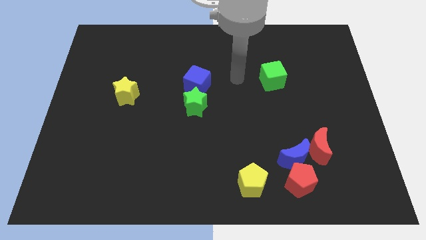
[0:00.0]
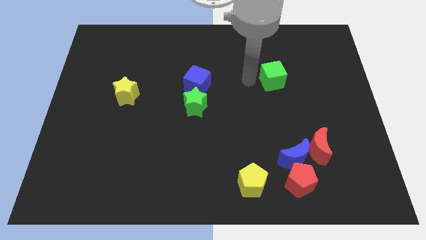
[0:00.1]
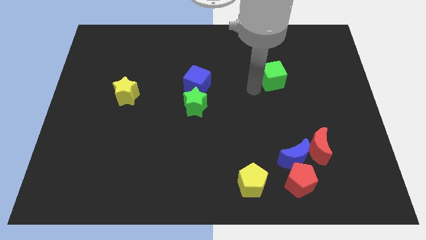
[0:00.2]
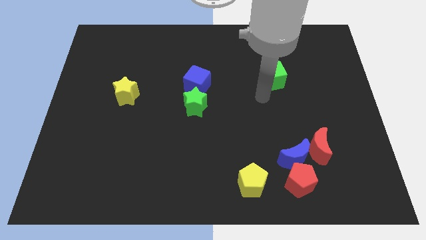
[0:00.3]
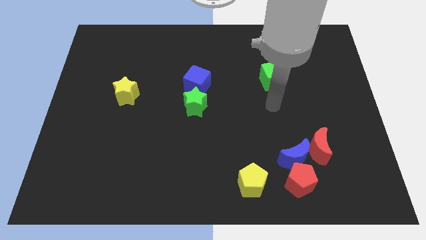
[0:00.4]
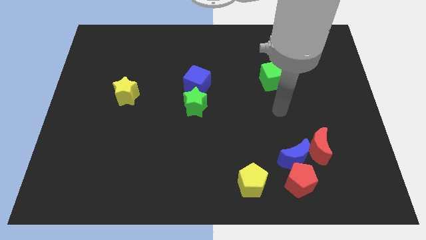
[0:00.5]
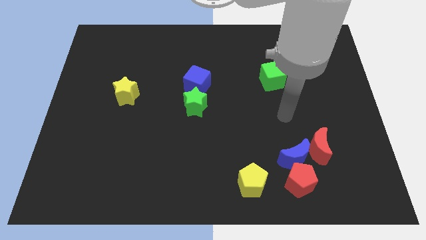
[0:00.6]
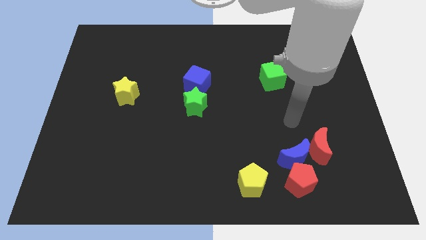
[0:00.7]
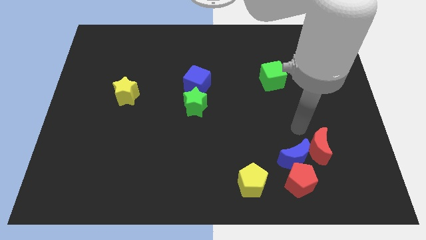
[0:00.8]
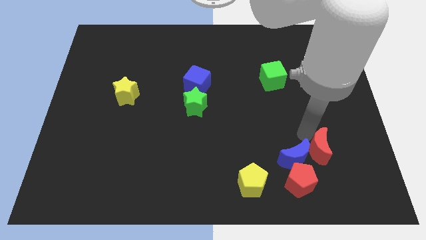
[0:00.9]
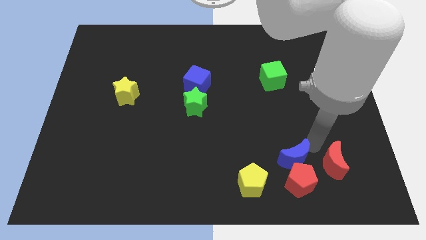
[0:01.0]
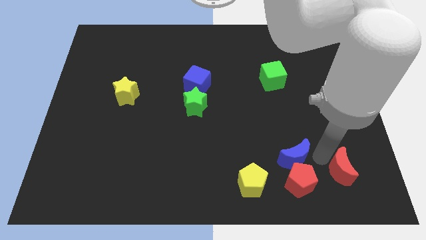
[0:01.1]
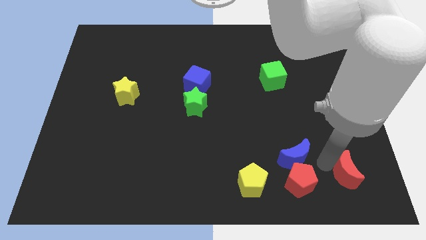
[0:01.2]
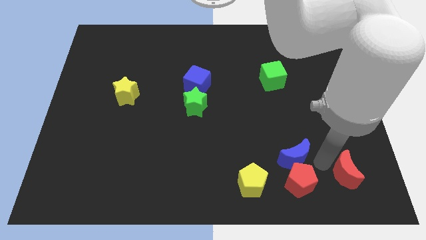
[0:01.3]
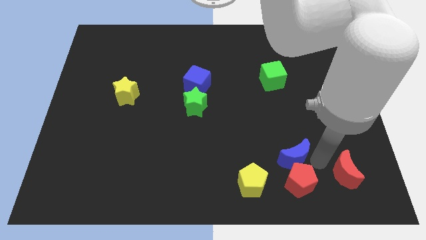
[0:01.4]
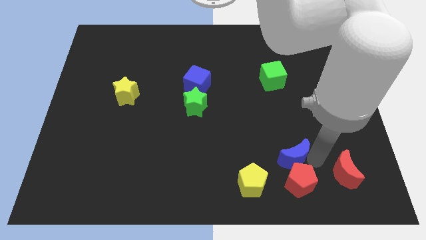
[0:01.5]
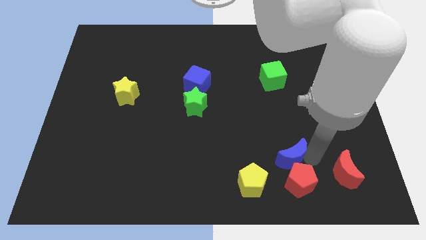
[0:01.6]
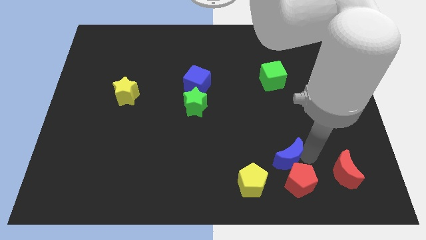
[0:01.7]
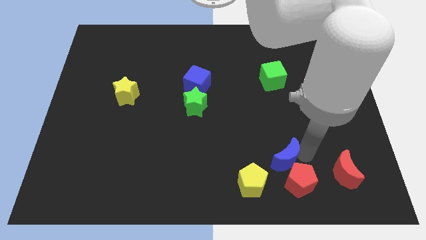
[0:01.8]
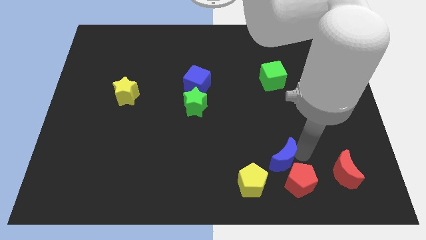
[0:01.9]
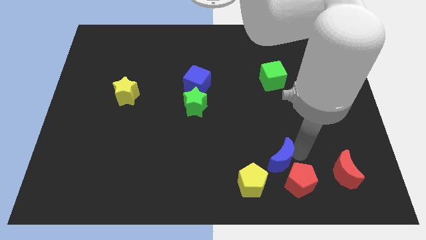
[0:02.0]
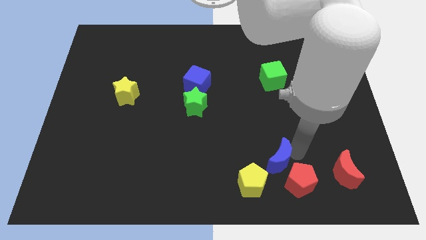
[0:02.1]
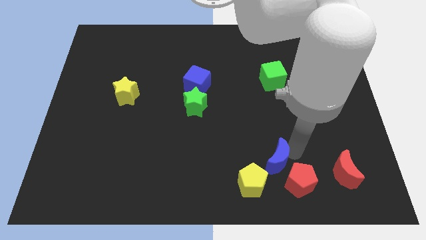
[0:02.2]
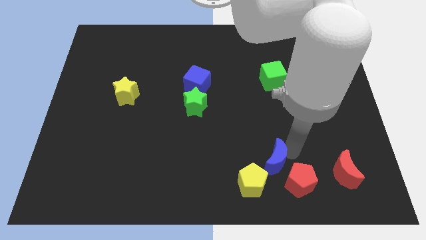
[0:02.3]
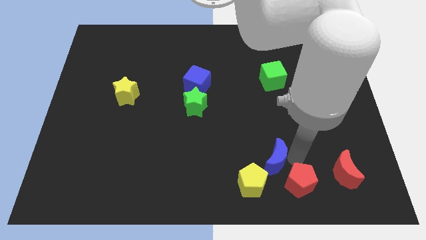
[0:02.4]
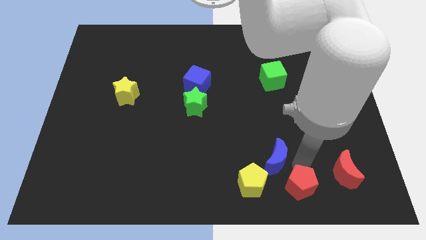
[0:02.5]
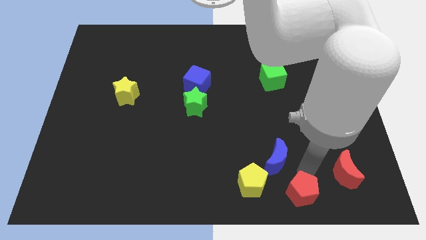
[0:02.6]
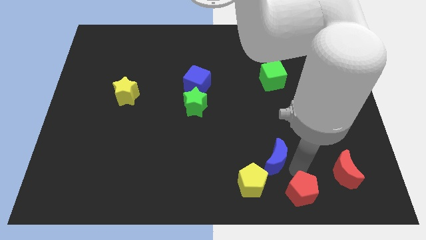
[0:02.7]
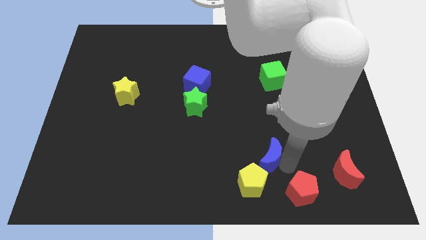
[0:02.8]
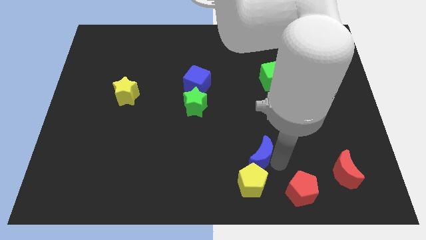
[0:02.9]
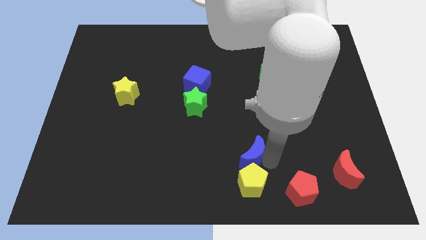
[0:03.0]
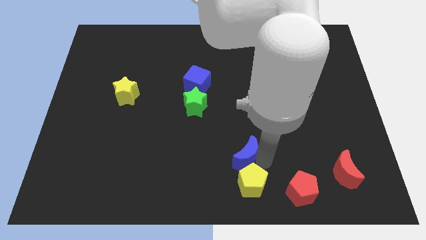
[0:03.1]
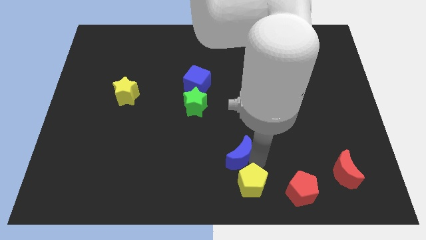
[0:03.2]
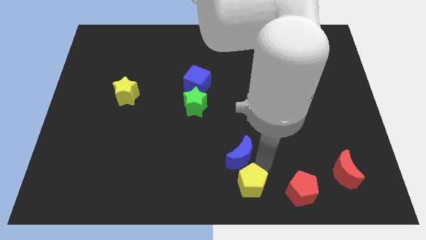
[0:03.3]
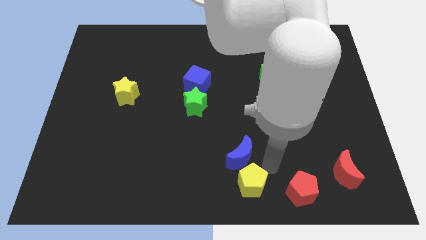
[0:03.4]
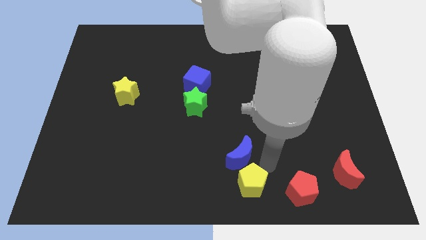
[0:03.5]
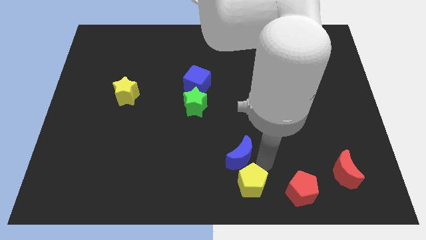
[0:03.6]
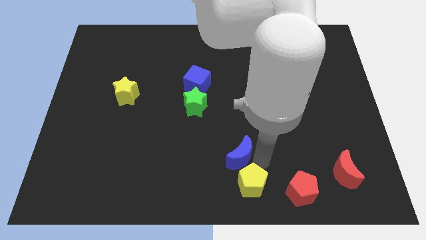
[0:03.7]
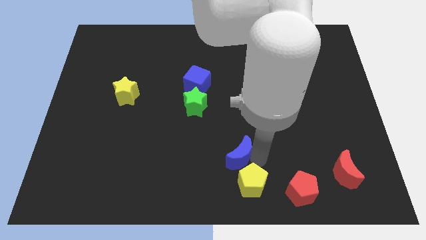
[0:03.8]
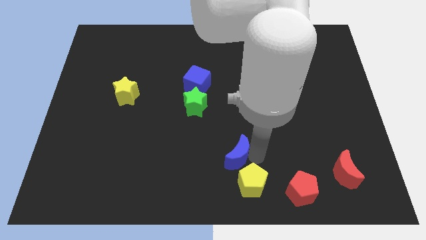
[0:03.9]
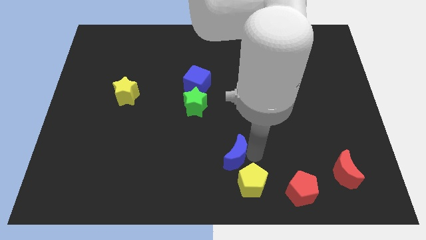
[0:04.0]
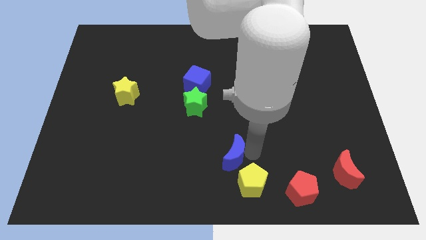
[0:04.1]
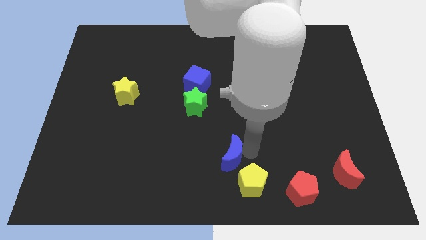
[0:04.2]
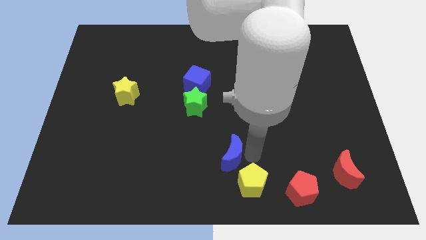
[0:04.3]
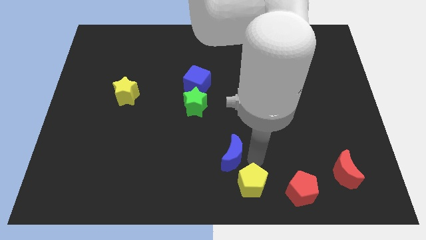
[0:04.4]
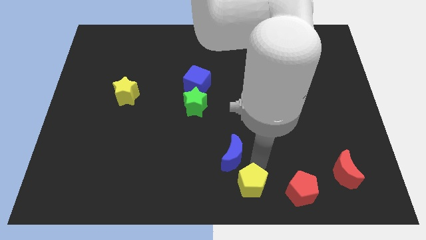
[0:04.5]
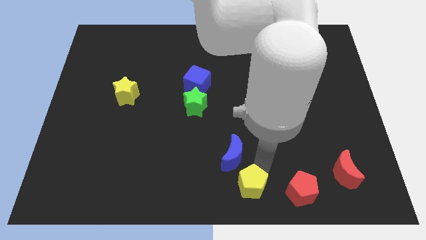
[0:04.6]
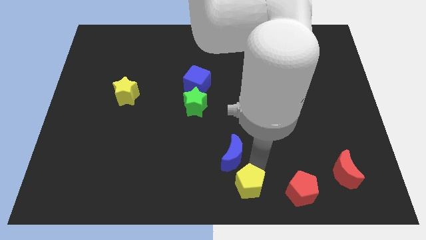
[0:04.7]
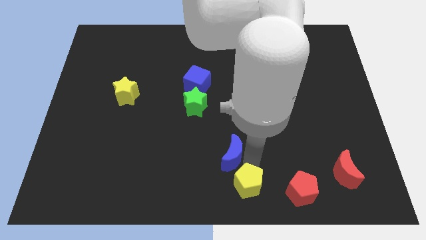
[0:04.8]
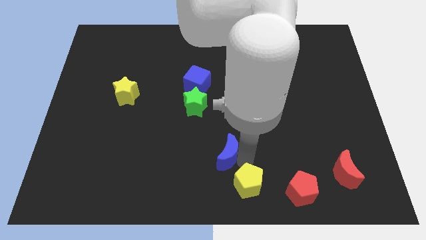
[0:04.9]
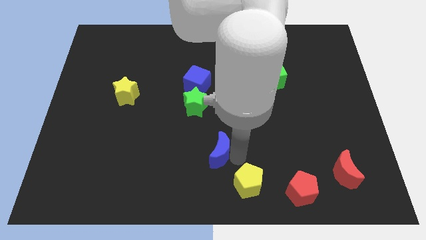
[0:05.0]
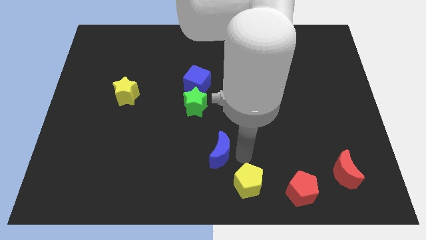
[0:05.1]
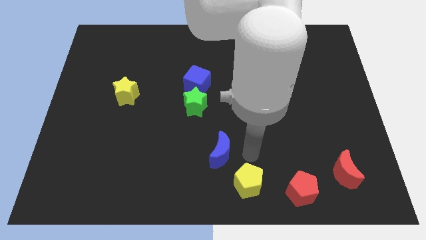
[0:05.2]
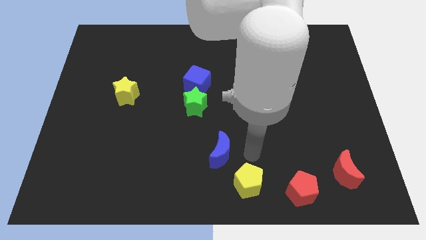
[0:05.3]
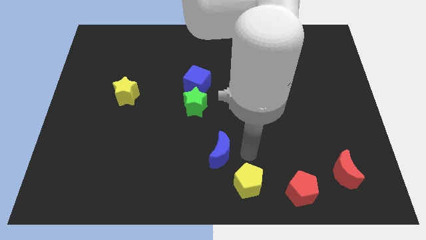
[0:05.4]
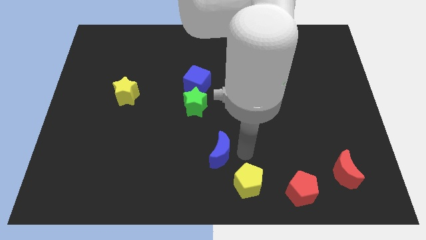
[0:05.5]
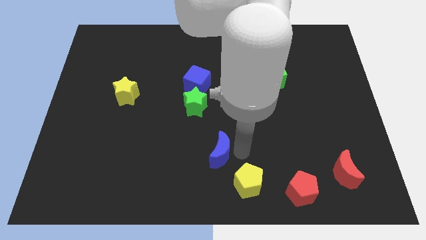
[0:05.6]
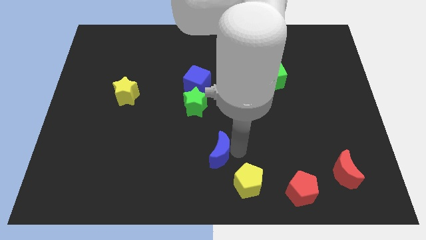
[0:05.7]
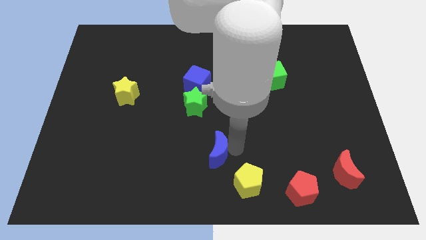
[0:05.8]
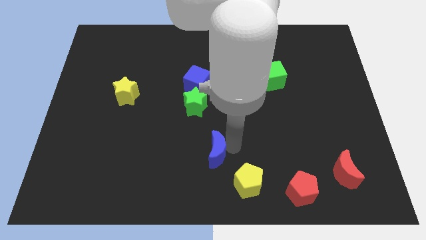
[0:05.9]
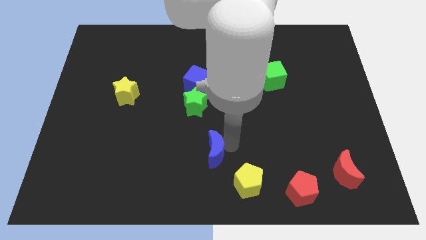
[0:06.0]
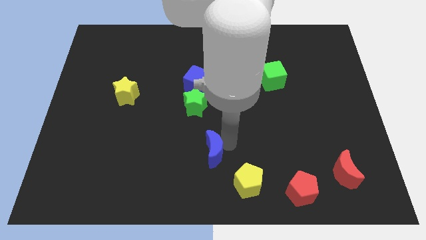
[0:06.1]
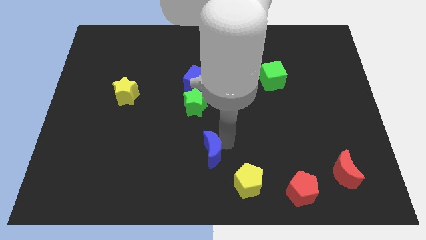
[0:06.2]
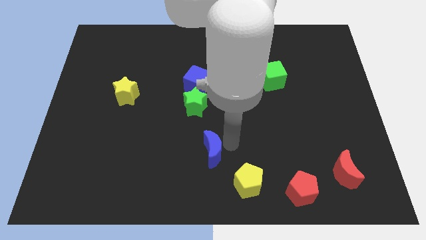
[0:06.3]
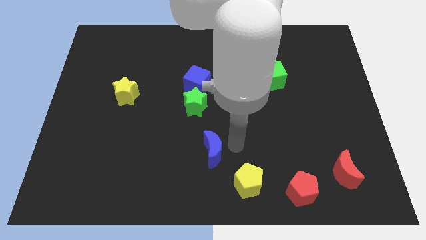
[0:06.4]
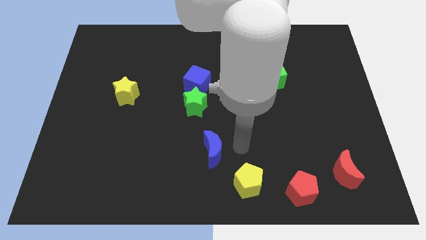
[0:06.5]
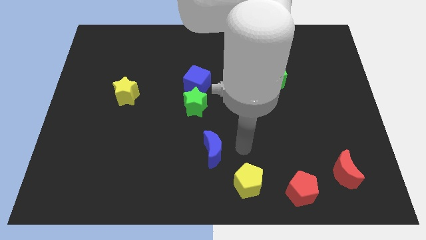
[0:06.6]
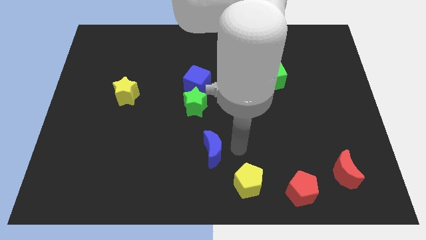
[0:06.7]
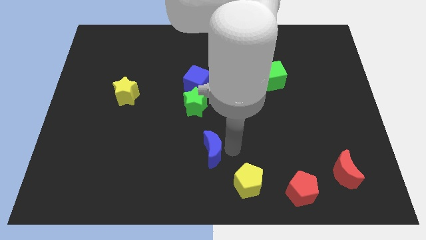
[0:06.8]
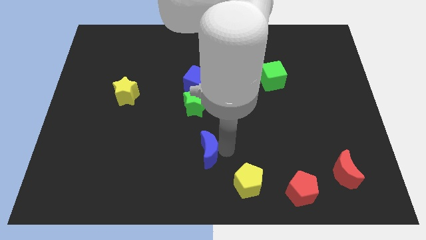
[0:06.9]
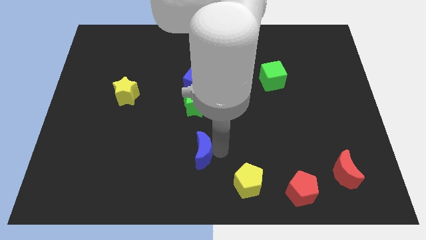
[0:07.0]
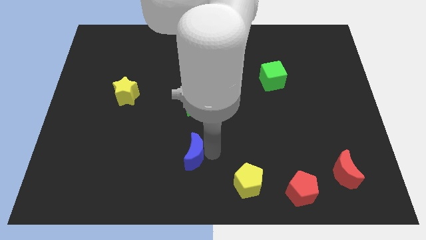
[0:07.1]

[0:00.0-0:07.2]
slide the blue moon to the left

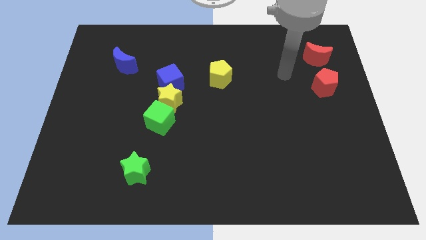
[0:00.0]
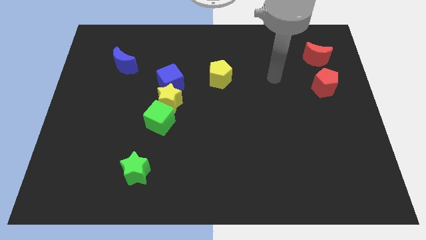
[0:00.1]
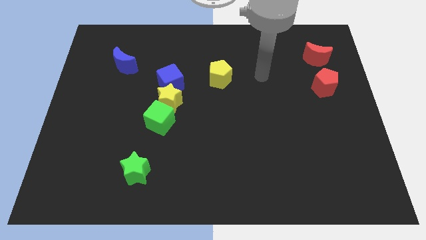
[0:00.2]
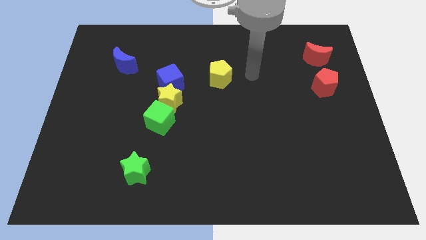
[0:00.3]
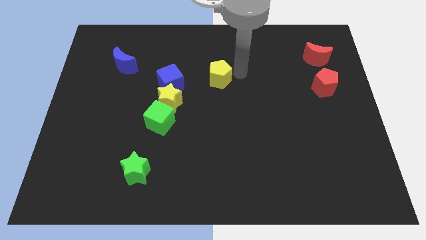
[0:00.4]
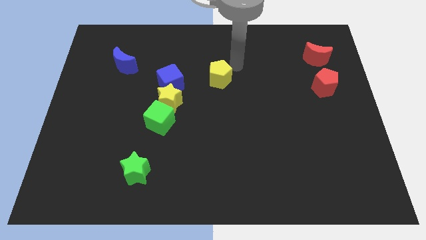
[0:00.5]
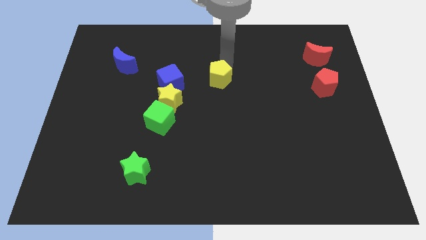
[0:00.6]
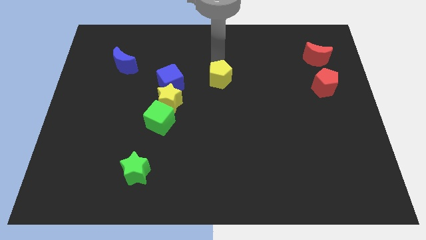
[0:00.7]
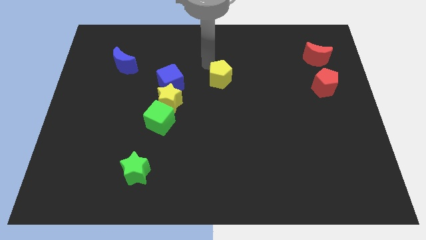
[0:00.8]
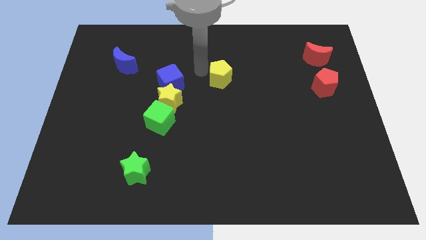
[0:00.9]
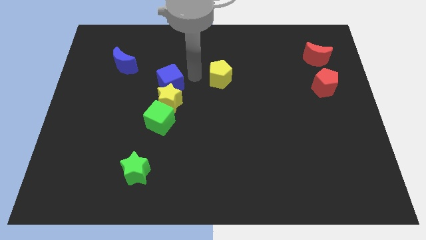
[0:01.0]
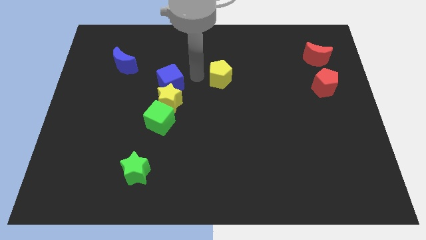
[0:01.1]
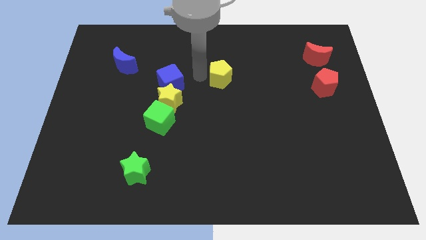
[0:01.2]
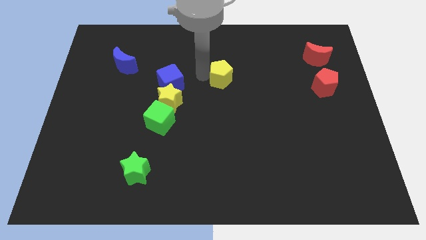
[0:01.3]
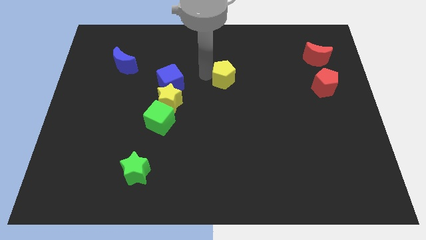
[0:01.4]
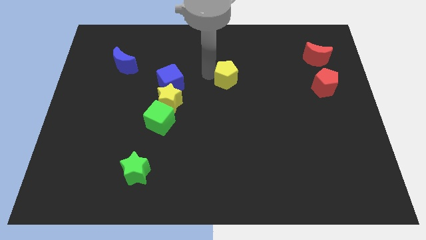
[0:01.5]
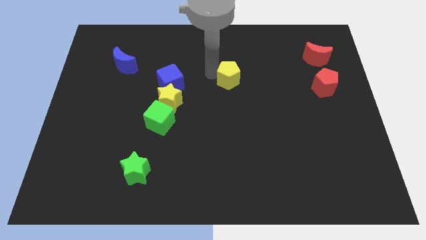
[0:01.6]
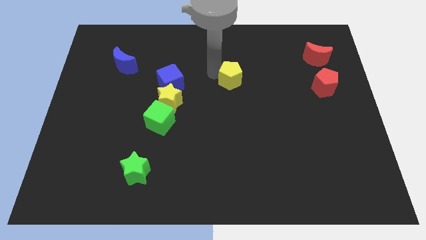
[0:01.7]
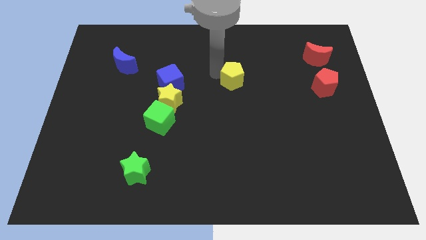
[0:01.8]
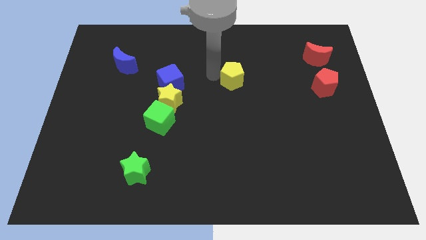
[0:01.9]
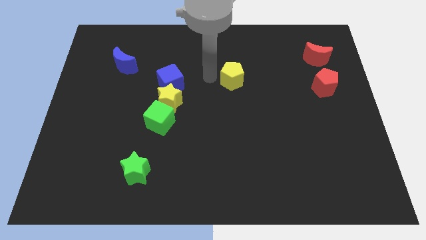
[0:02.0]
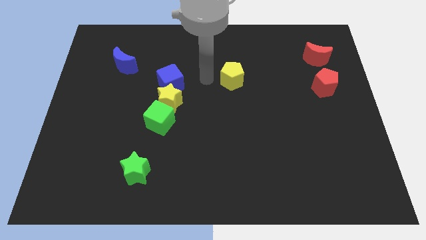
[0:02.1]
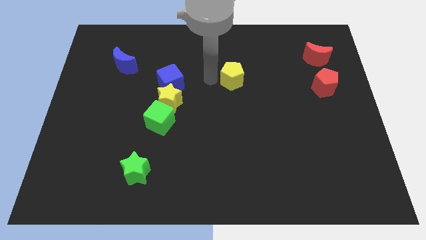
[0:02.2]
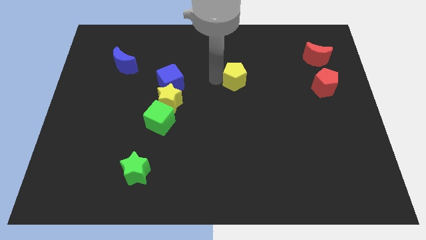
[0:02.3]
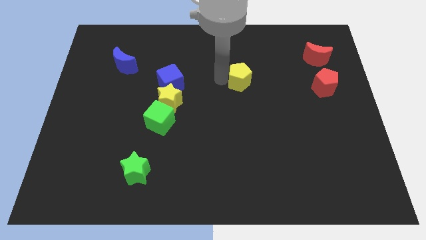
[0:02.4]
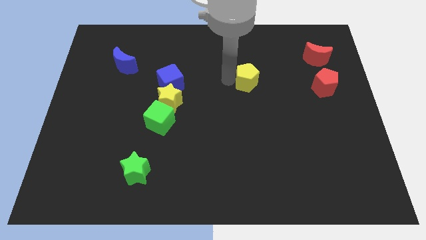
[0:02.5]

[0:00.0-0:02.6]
move the yellow pentagon to the right a bit
